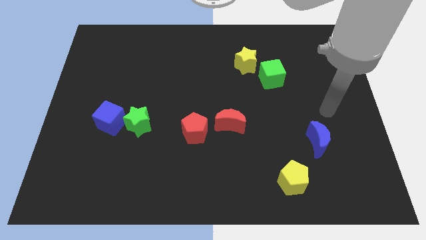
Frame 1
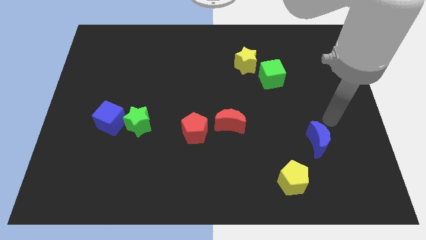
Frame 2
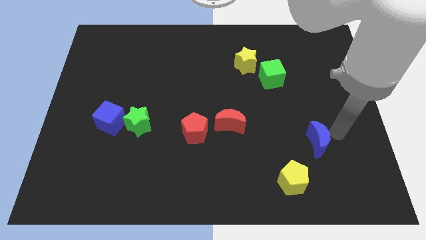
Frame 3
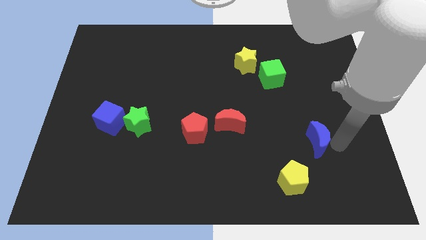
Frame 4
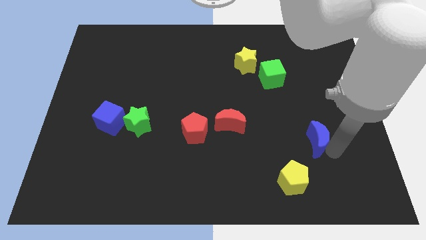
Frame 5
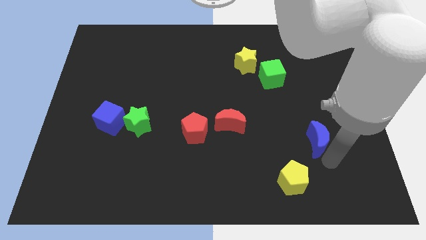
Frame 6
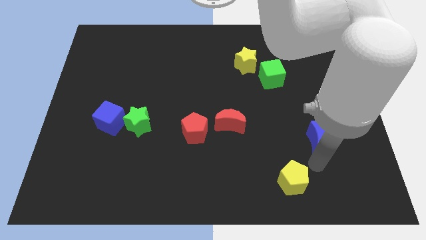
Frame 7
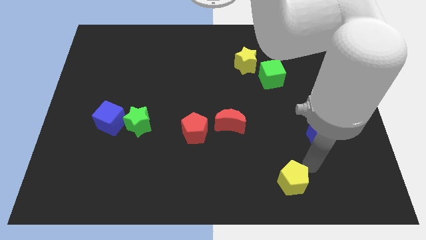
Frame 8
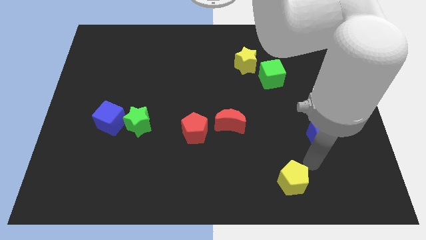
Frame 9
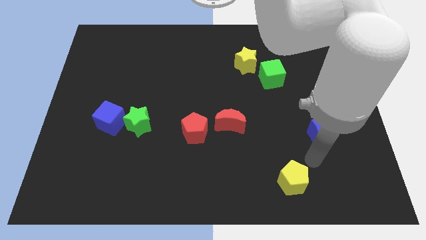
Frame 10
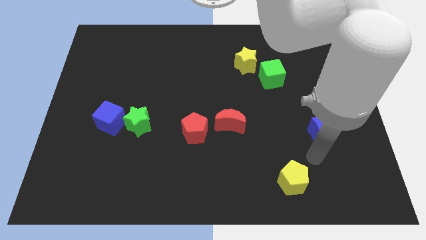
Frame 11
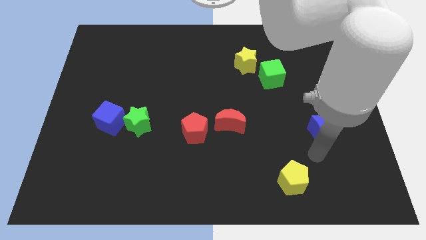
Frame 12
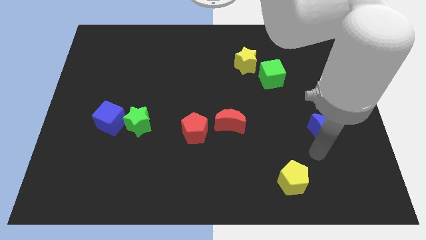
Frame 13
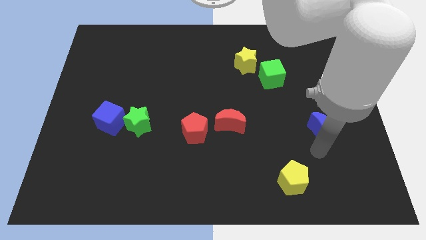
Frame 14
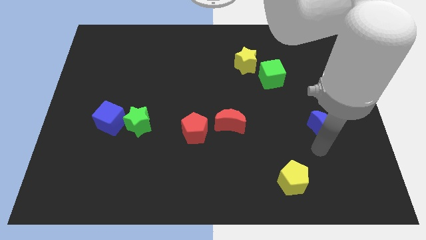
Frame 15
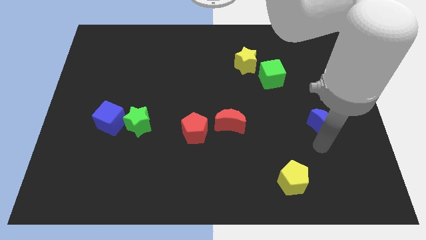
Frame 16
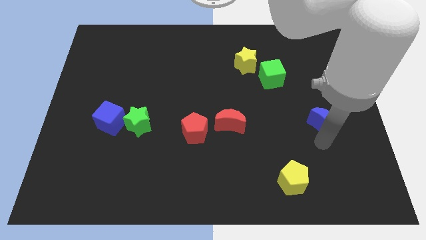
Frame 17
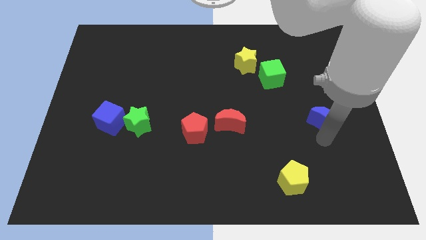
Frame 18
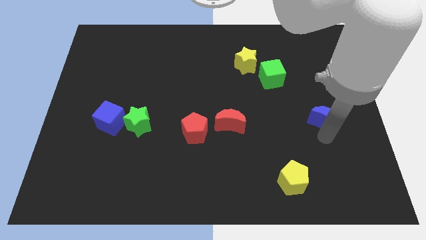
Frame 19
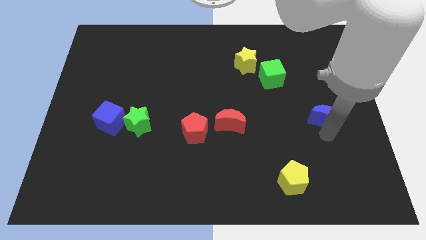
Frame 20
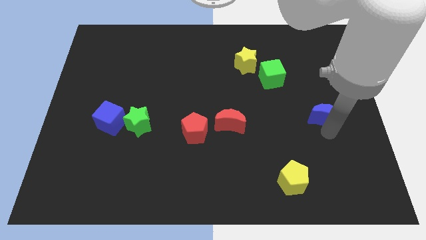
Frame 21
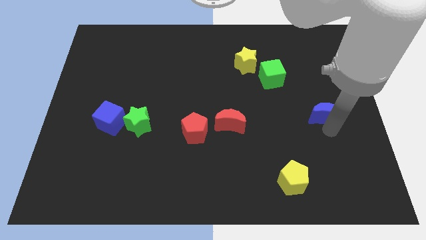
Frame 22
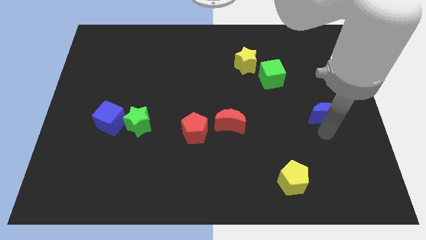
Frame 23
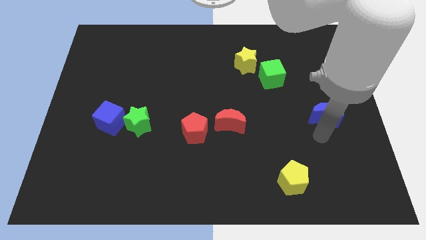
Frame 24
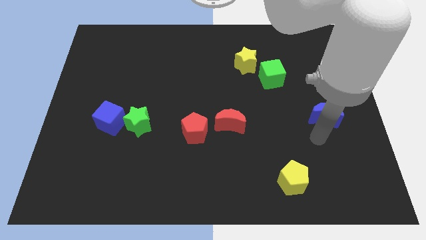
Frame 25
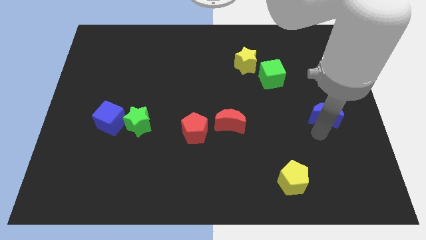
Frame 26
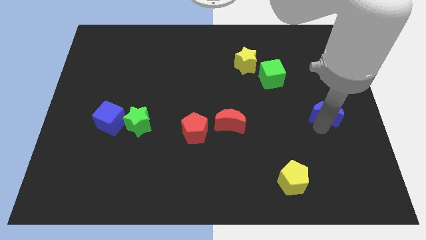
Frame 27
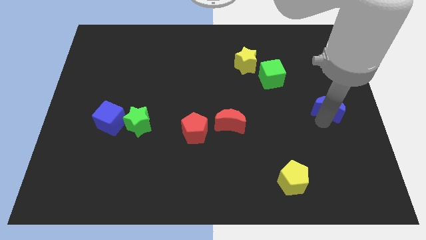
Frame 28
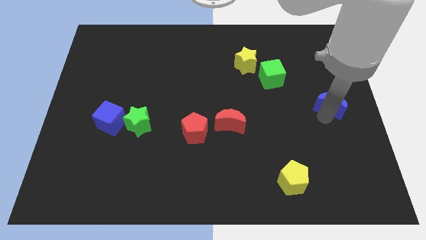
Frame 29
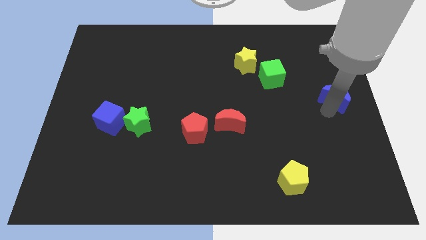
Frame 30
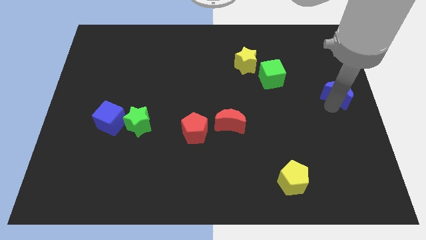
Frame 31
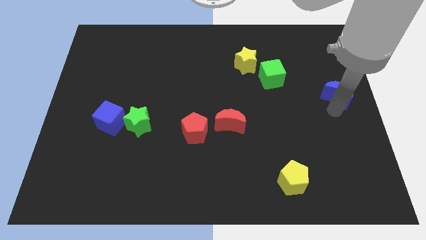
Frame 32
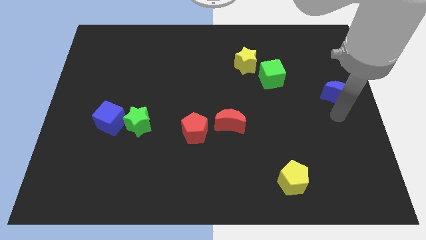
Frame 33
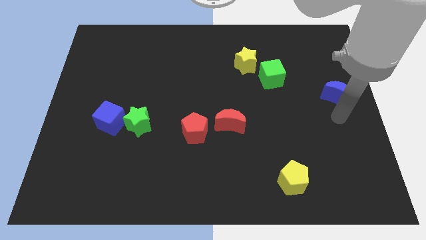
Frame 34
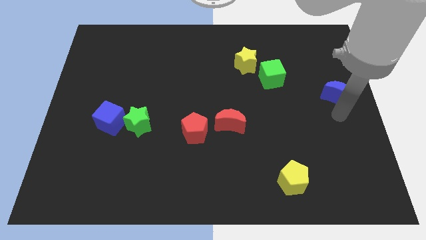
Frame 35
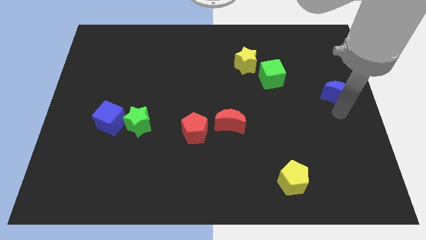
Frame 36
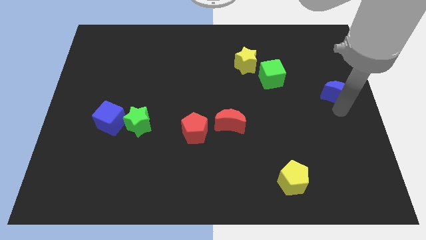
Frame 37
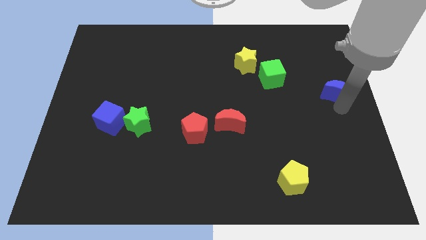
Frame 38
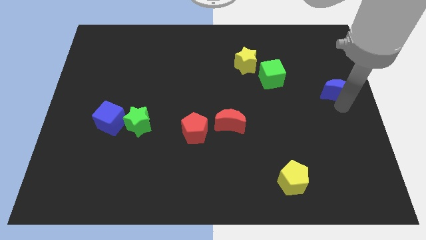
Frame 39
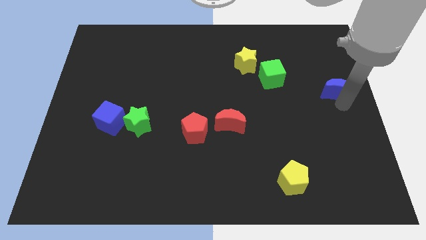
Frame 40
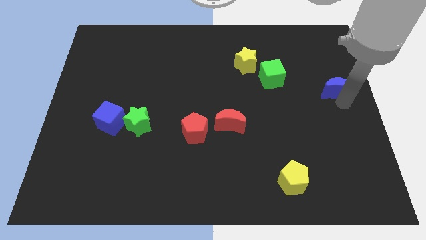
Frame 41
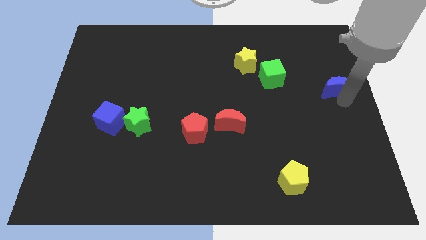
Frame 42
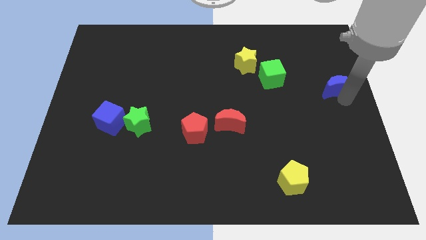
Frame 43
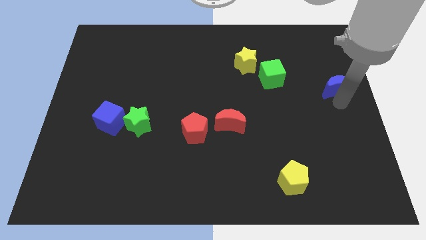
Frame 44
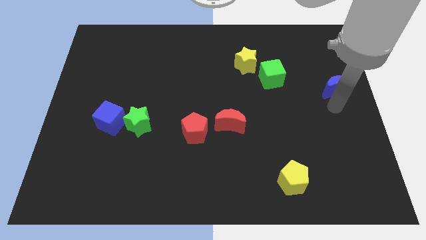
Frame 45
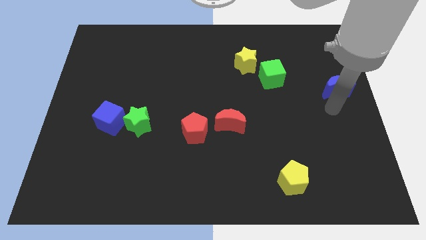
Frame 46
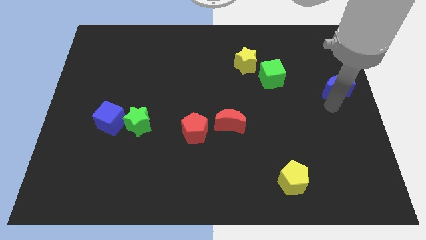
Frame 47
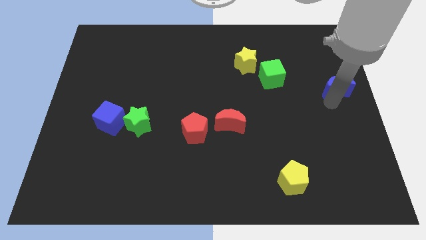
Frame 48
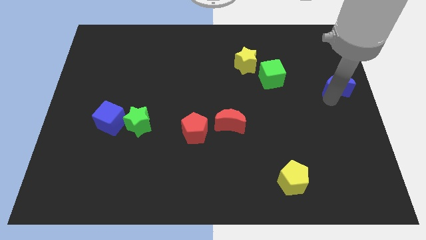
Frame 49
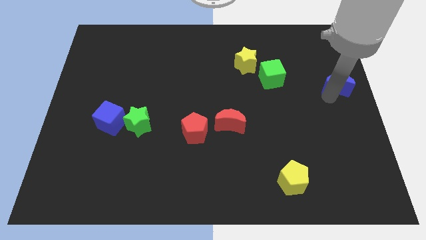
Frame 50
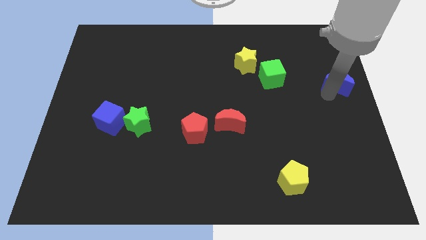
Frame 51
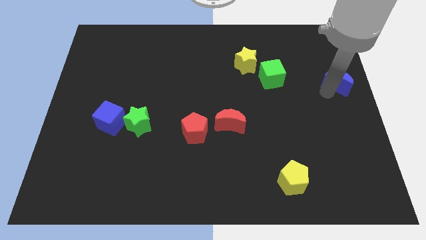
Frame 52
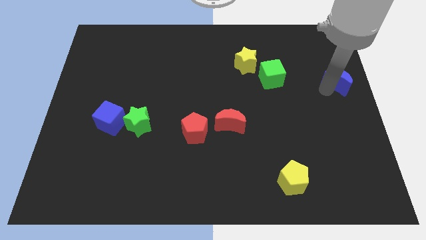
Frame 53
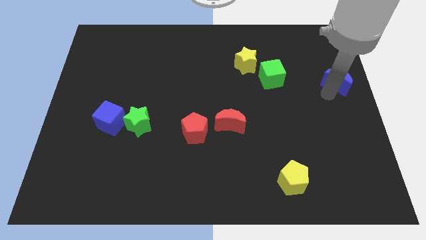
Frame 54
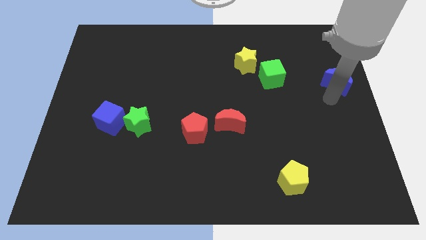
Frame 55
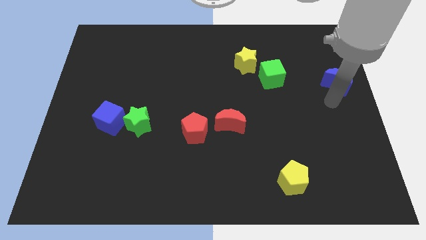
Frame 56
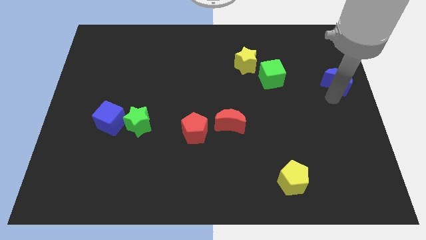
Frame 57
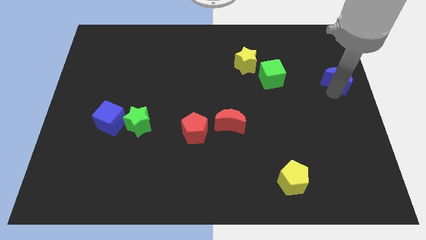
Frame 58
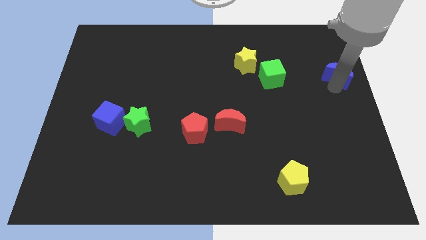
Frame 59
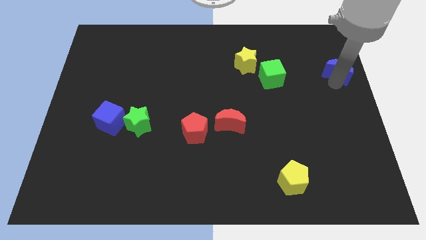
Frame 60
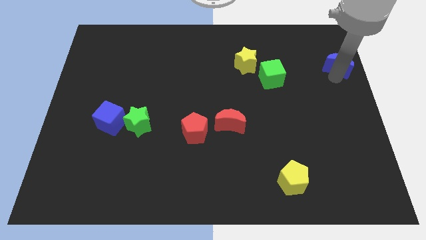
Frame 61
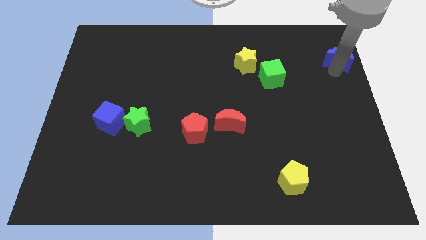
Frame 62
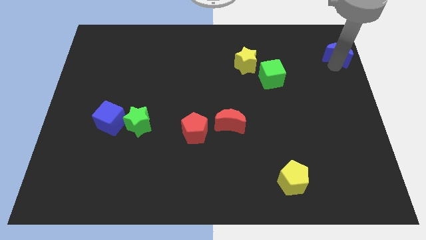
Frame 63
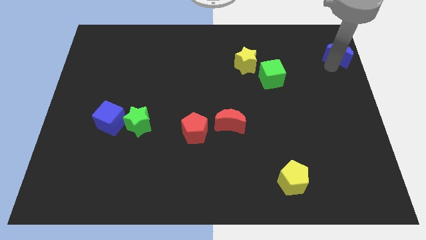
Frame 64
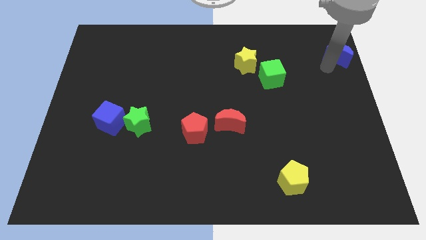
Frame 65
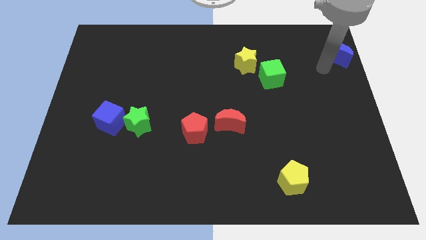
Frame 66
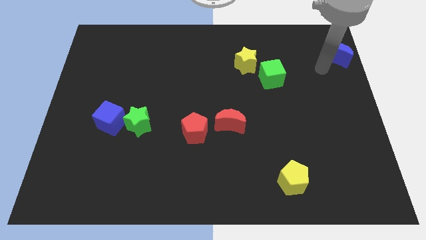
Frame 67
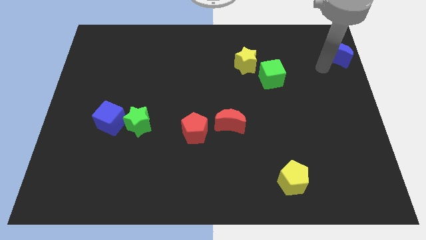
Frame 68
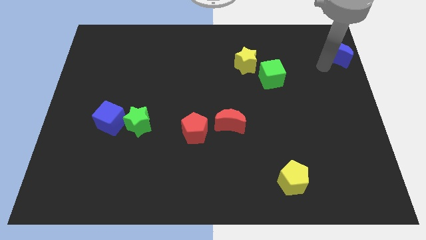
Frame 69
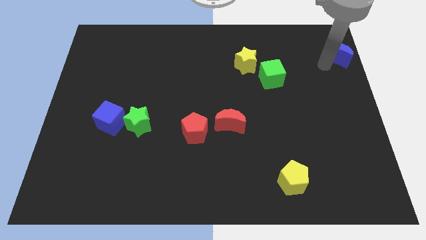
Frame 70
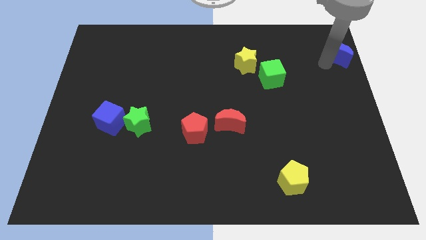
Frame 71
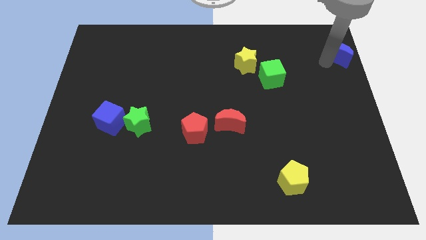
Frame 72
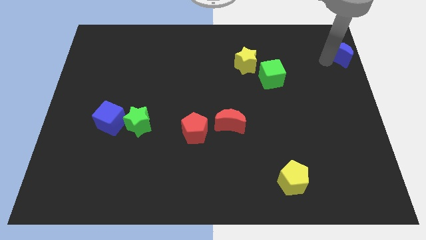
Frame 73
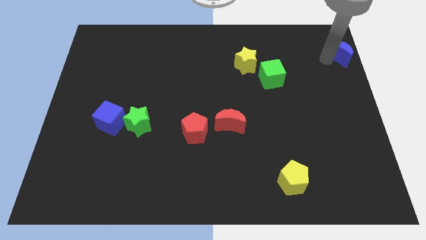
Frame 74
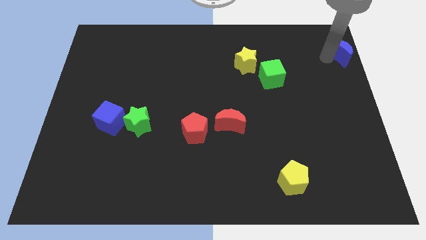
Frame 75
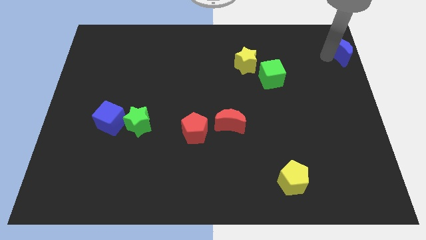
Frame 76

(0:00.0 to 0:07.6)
slide the blue moon to the top right
